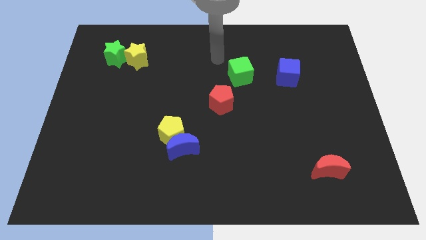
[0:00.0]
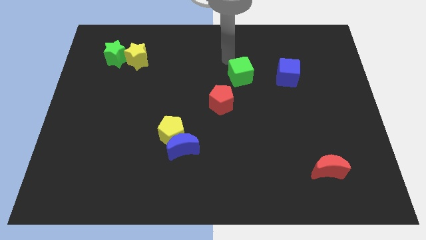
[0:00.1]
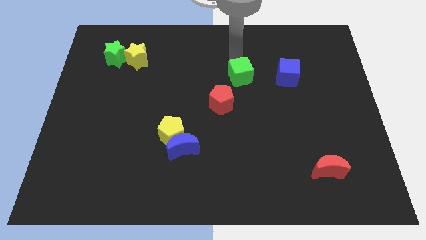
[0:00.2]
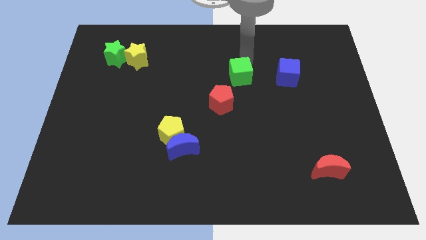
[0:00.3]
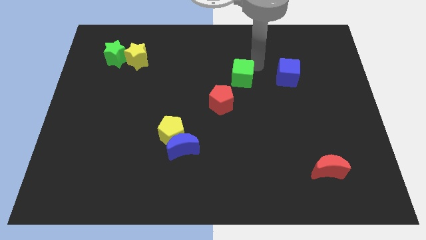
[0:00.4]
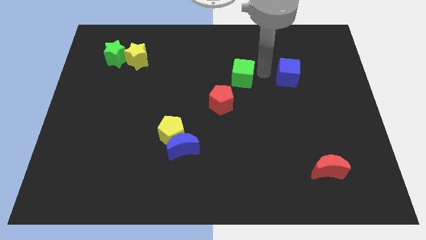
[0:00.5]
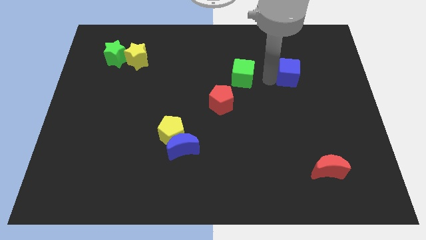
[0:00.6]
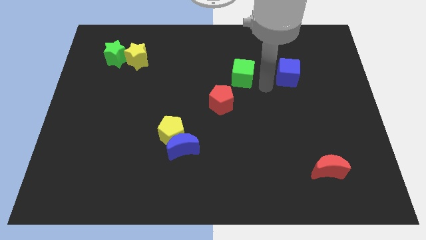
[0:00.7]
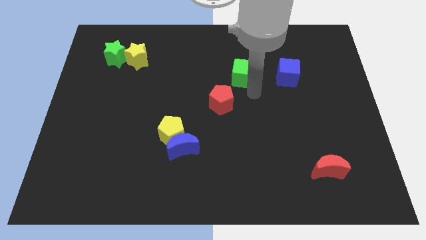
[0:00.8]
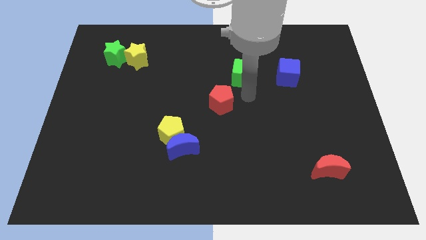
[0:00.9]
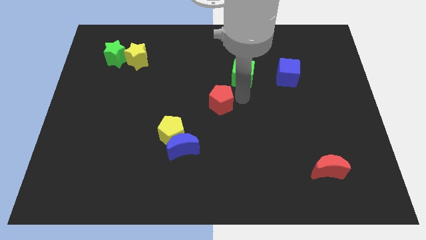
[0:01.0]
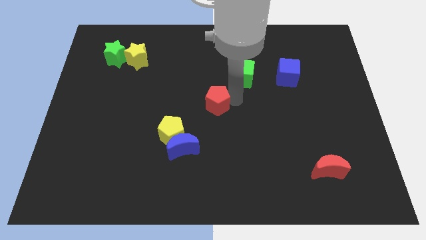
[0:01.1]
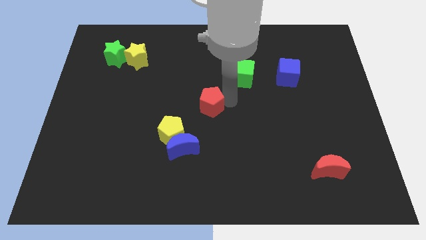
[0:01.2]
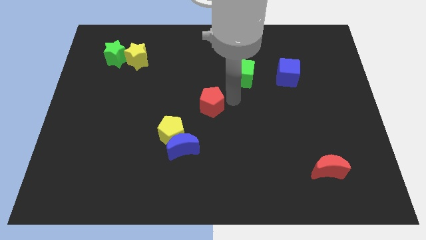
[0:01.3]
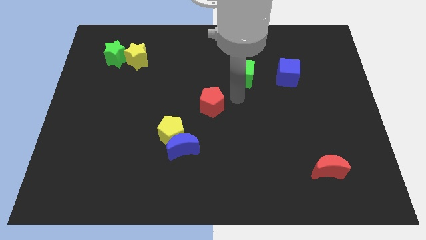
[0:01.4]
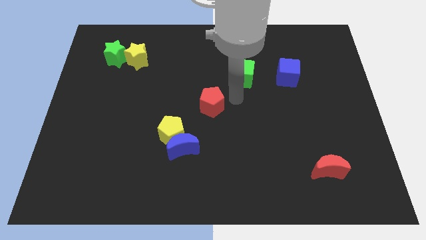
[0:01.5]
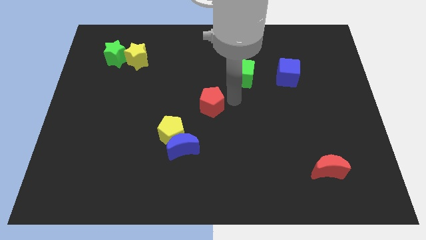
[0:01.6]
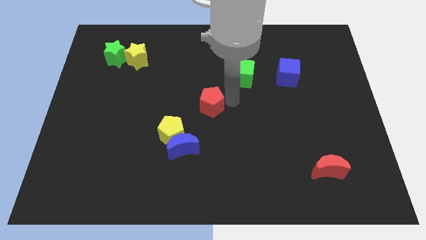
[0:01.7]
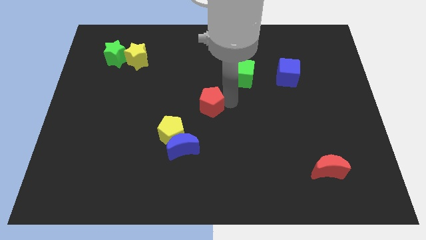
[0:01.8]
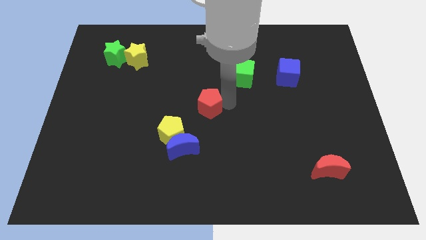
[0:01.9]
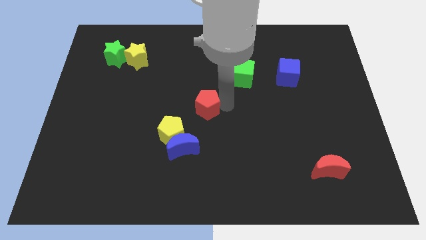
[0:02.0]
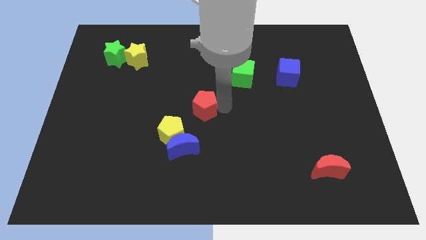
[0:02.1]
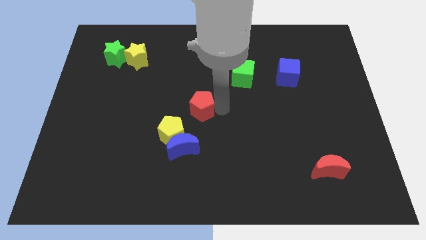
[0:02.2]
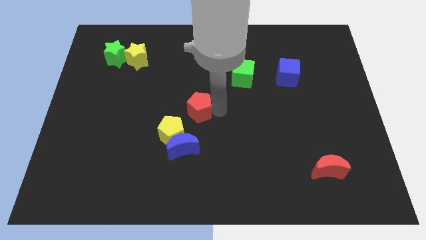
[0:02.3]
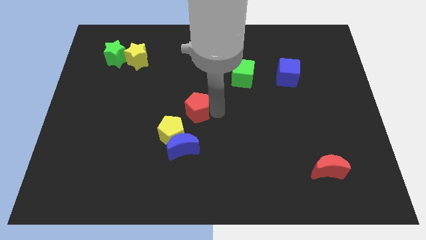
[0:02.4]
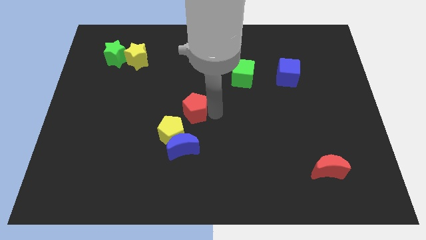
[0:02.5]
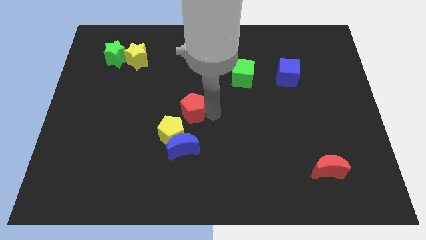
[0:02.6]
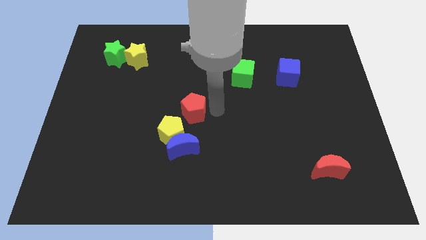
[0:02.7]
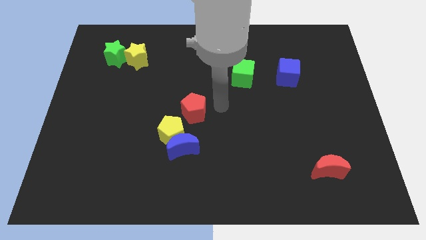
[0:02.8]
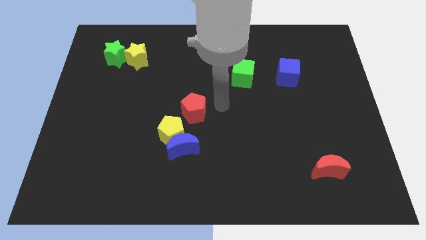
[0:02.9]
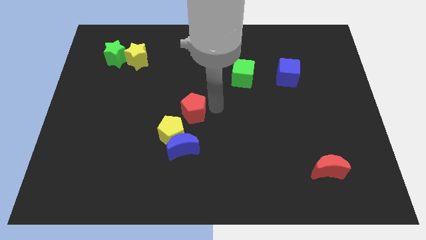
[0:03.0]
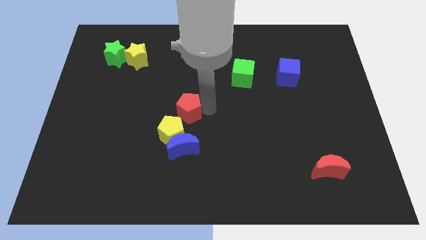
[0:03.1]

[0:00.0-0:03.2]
push the red pentagon somewhat downwards and left

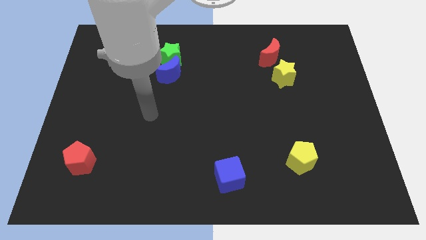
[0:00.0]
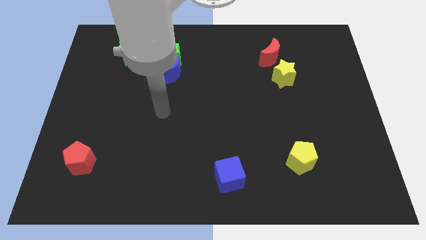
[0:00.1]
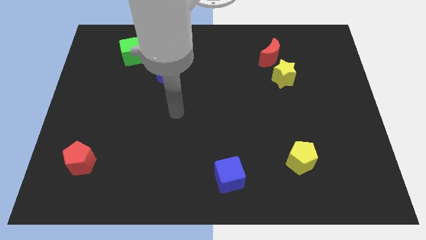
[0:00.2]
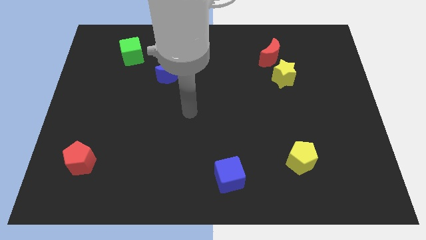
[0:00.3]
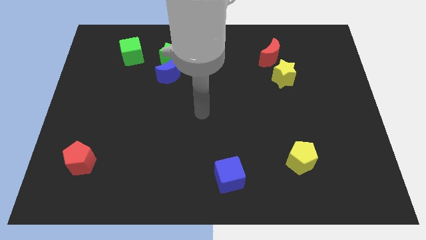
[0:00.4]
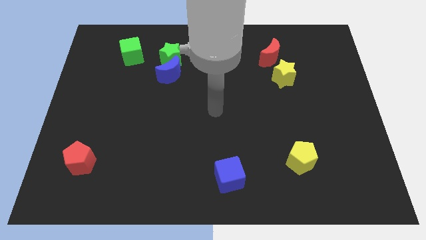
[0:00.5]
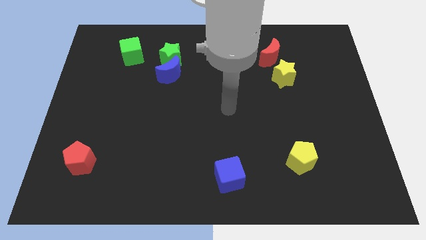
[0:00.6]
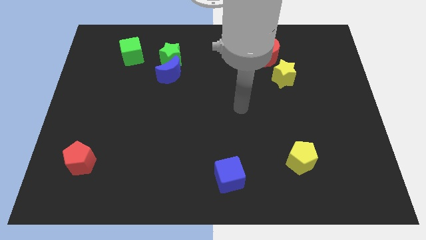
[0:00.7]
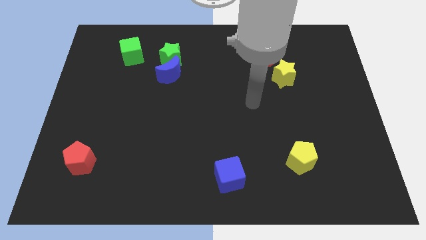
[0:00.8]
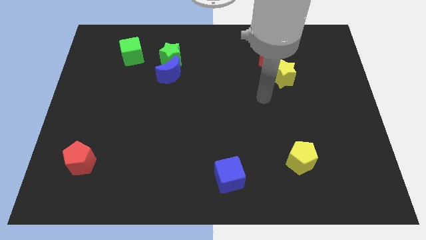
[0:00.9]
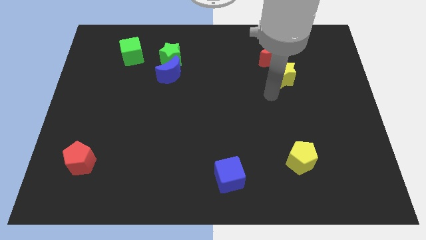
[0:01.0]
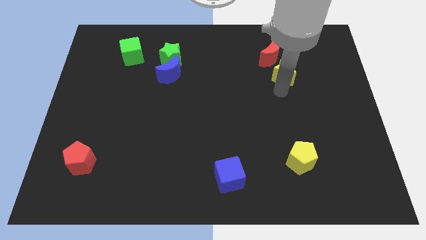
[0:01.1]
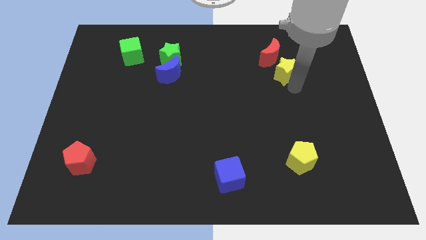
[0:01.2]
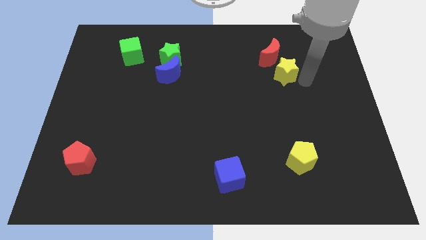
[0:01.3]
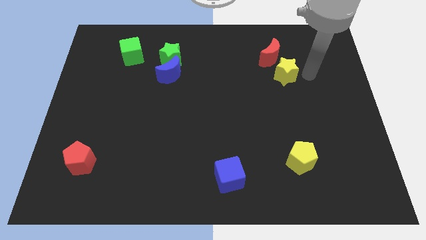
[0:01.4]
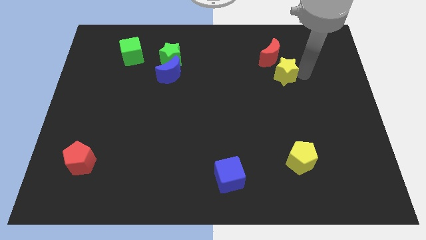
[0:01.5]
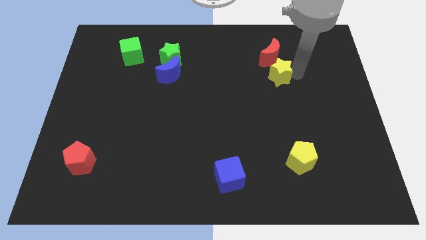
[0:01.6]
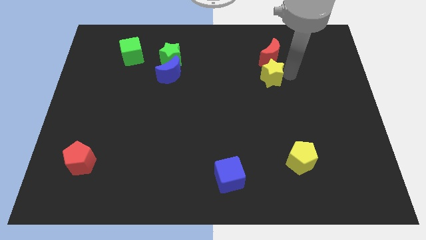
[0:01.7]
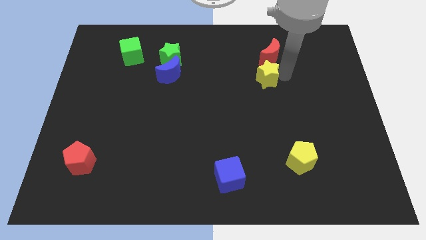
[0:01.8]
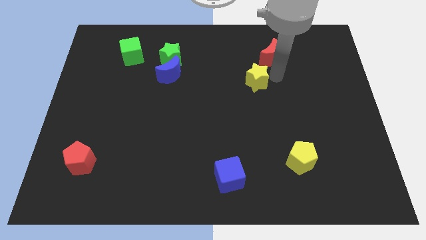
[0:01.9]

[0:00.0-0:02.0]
slightly move the yellow star left

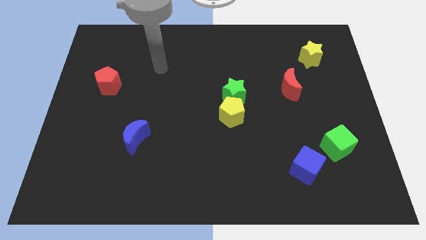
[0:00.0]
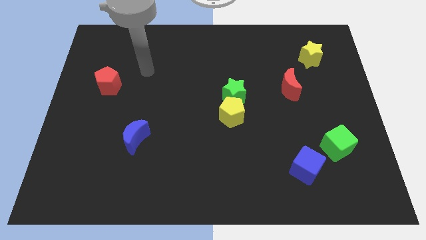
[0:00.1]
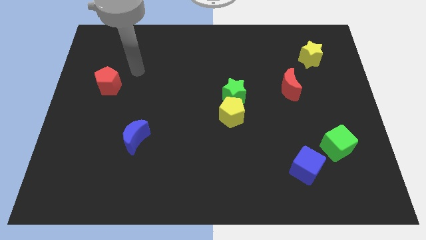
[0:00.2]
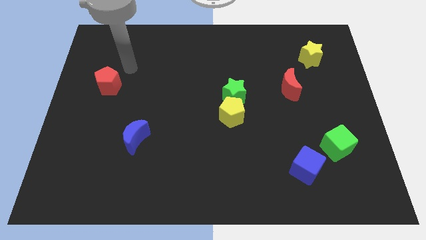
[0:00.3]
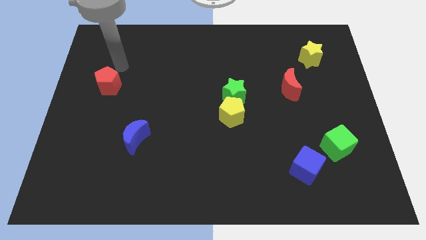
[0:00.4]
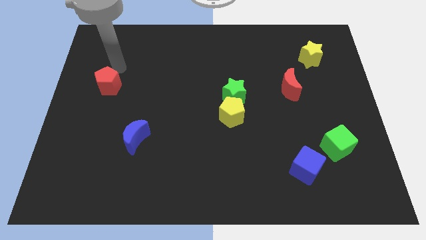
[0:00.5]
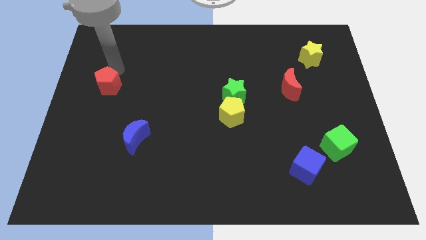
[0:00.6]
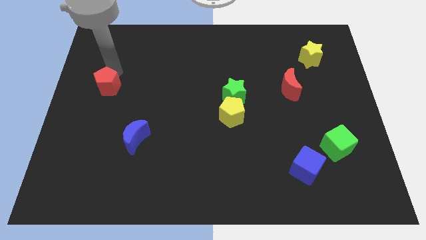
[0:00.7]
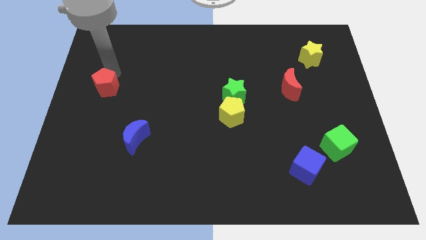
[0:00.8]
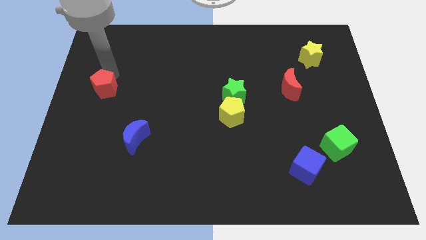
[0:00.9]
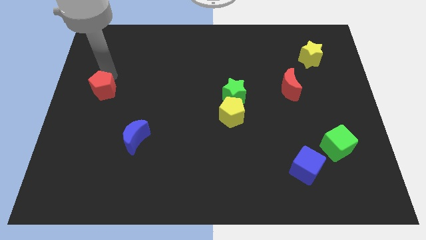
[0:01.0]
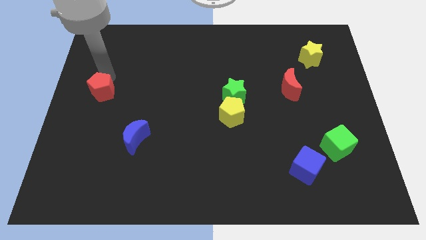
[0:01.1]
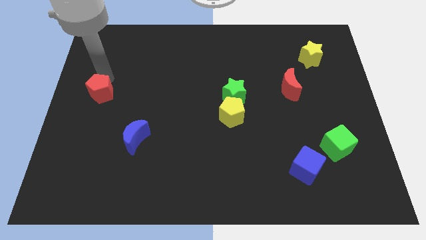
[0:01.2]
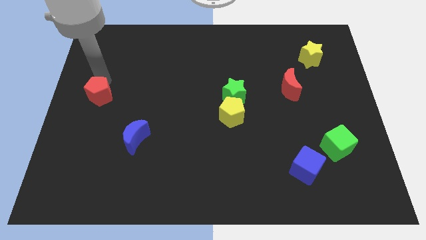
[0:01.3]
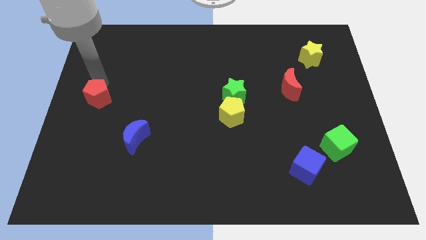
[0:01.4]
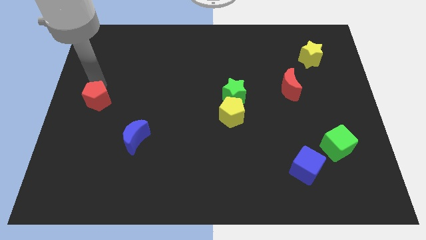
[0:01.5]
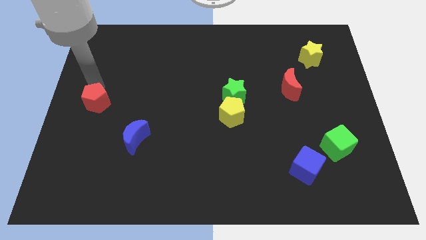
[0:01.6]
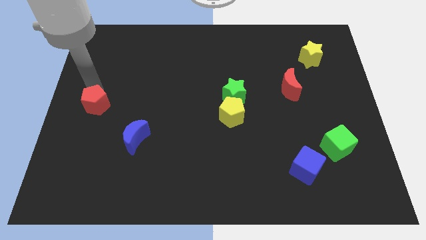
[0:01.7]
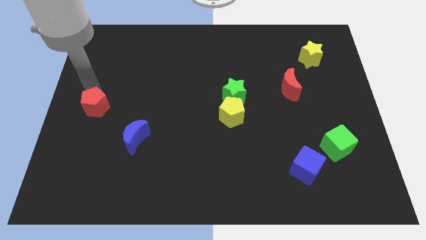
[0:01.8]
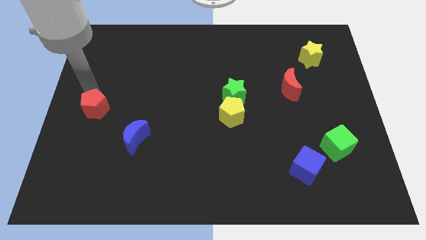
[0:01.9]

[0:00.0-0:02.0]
move the red pentagon down somewhat
